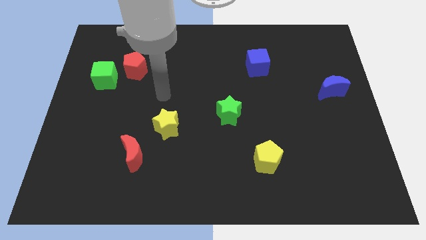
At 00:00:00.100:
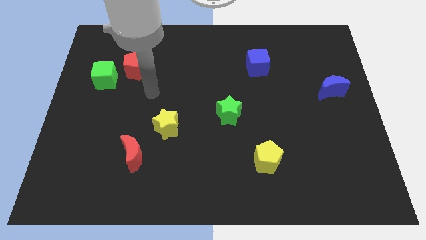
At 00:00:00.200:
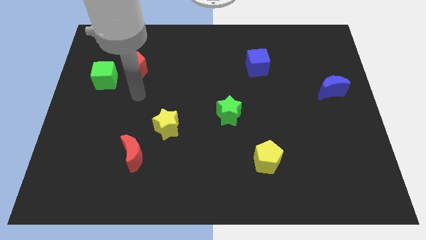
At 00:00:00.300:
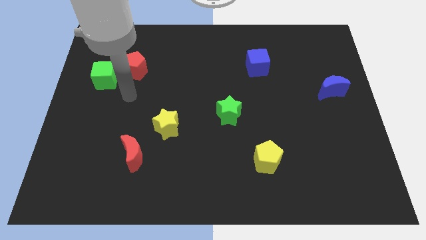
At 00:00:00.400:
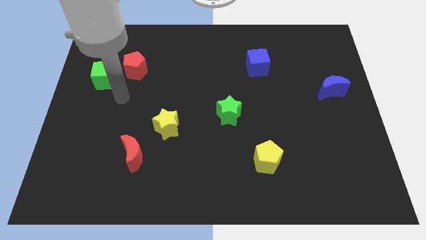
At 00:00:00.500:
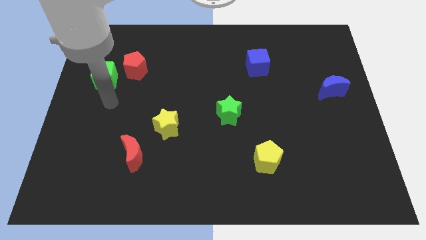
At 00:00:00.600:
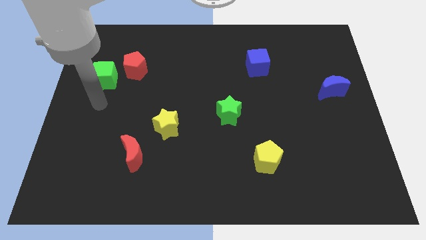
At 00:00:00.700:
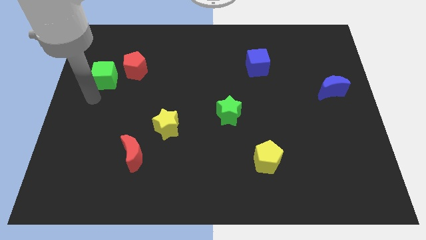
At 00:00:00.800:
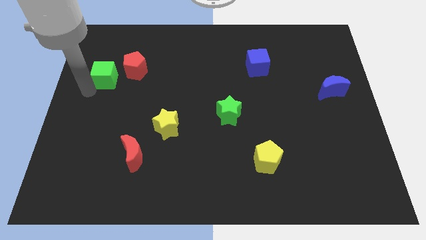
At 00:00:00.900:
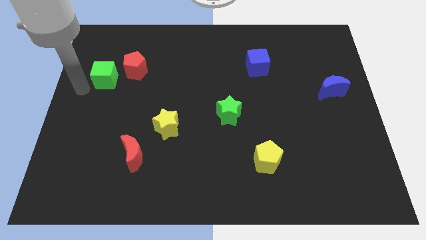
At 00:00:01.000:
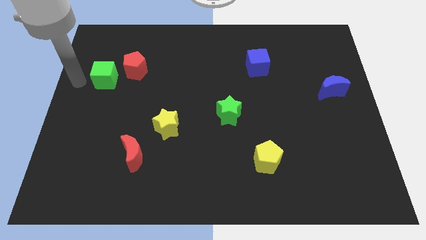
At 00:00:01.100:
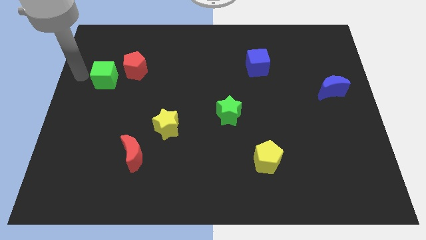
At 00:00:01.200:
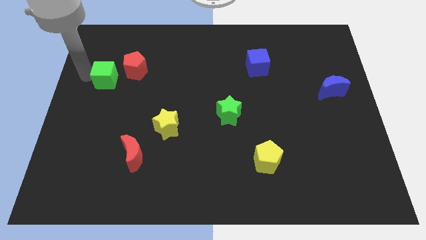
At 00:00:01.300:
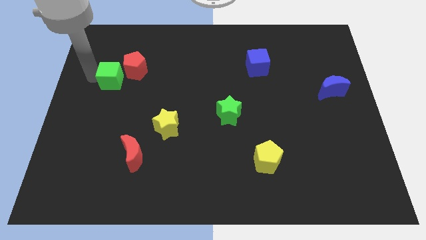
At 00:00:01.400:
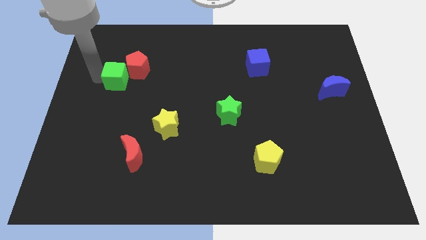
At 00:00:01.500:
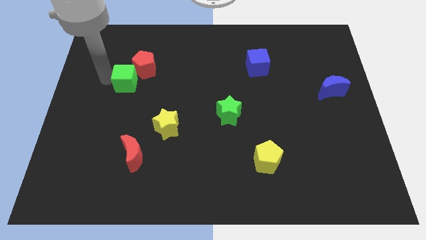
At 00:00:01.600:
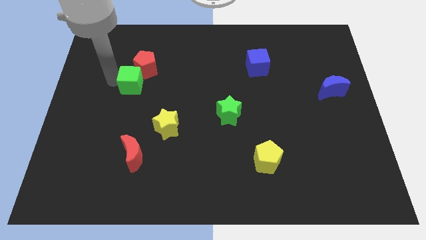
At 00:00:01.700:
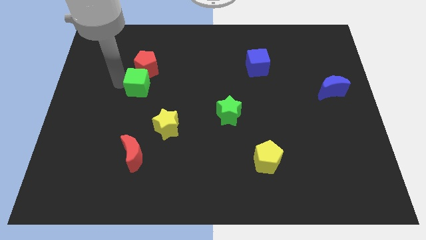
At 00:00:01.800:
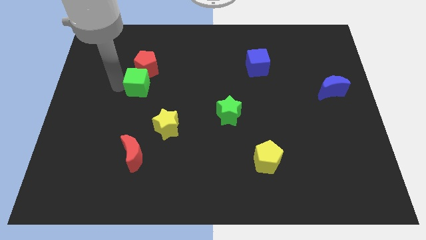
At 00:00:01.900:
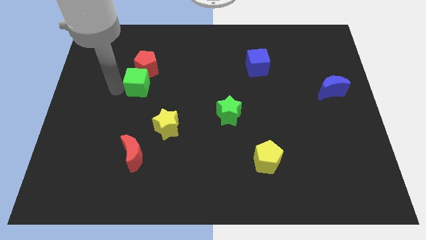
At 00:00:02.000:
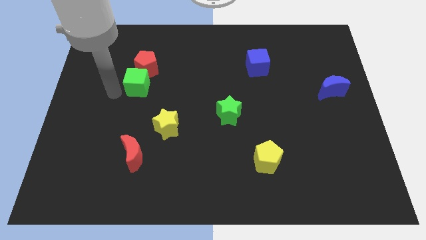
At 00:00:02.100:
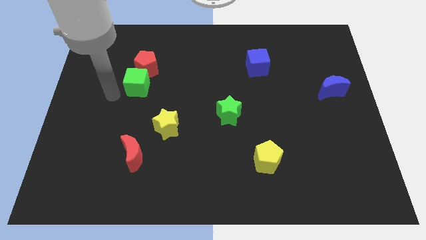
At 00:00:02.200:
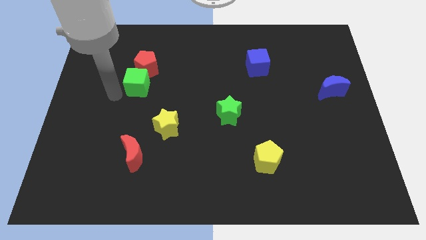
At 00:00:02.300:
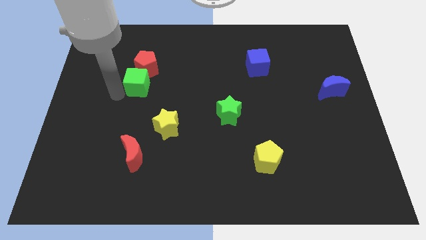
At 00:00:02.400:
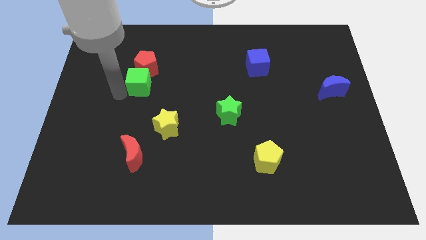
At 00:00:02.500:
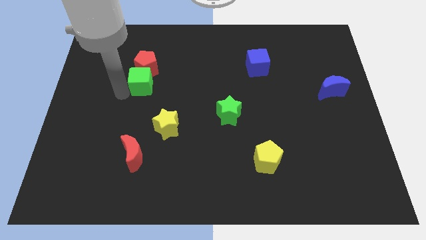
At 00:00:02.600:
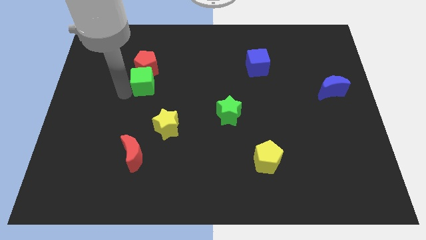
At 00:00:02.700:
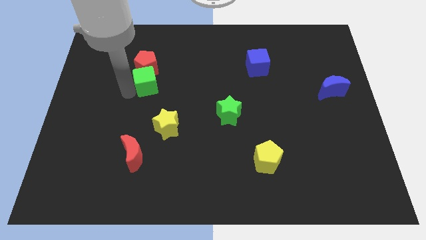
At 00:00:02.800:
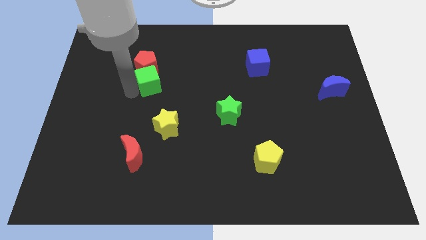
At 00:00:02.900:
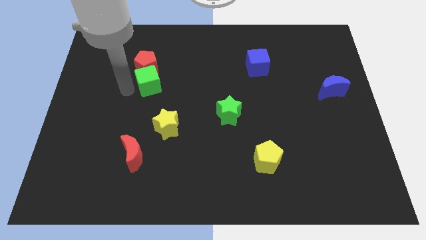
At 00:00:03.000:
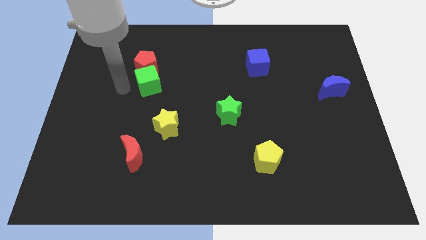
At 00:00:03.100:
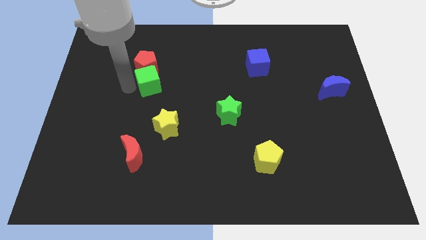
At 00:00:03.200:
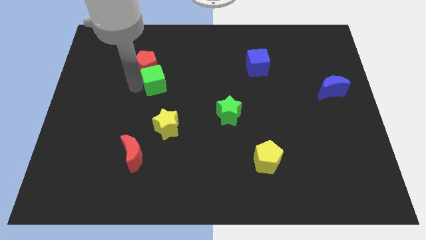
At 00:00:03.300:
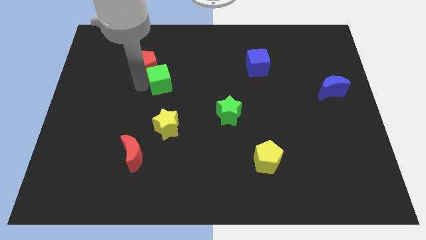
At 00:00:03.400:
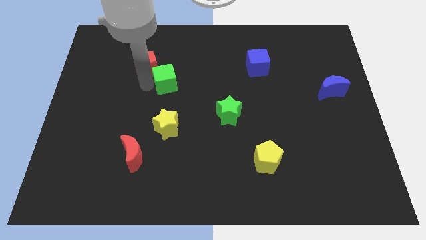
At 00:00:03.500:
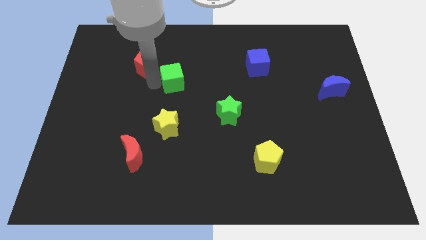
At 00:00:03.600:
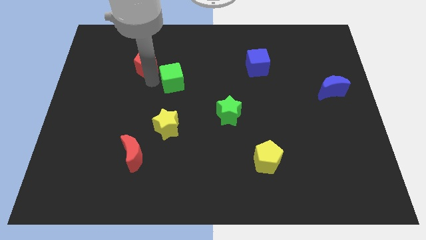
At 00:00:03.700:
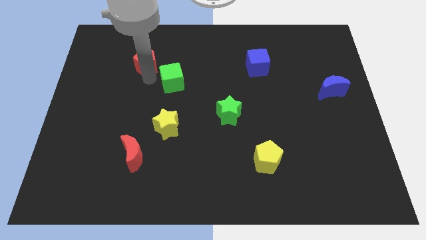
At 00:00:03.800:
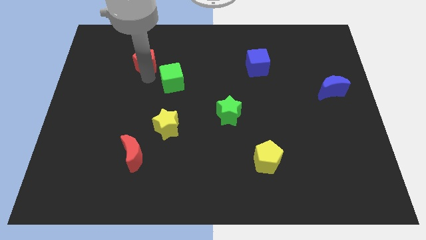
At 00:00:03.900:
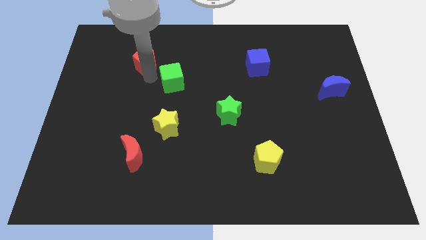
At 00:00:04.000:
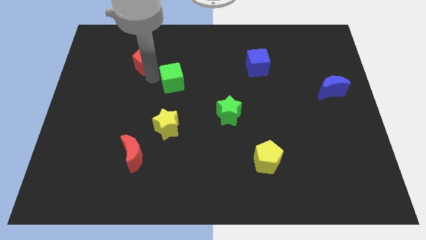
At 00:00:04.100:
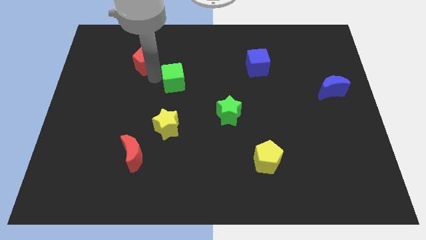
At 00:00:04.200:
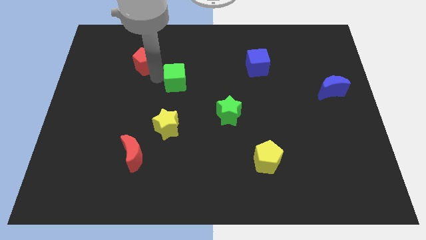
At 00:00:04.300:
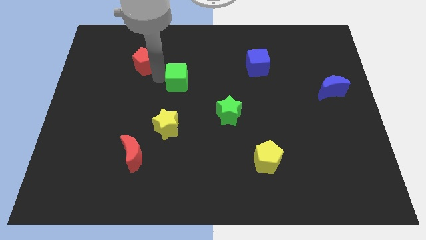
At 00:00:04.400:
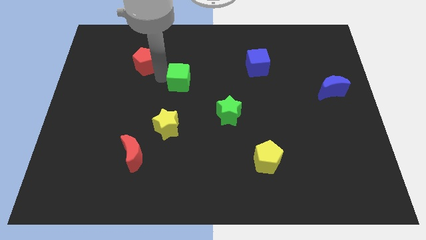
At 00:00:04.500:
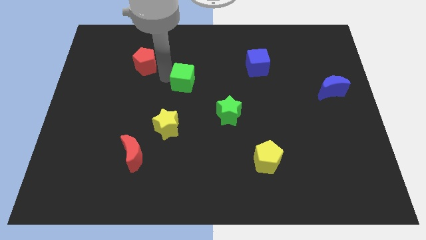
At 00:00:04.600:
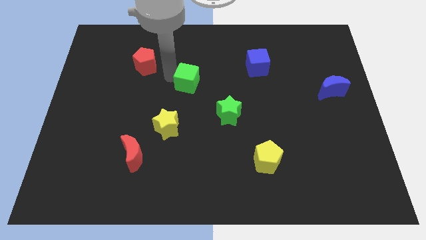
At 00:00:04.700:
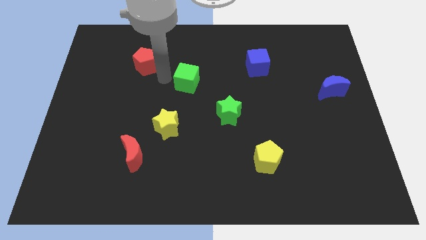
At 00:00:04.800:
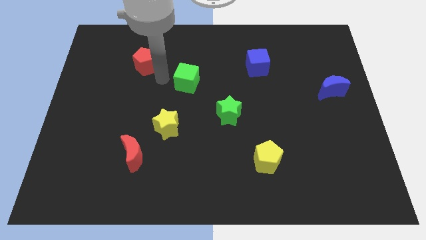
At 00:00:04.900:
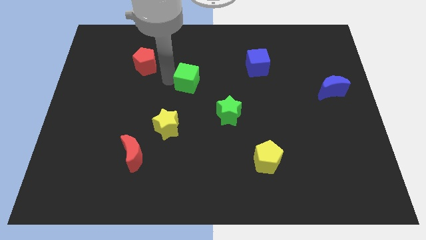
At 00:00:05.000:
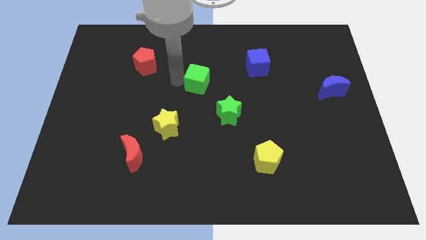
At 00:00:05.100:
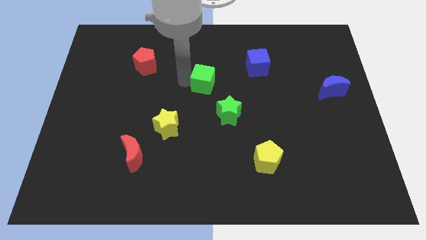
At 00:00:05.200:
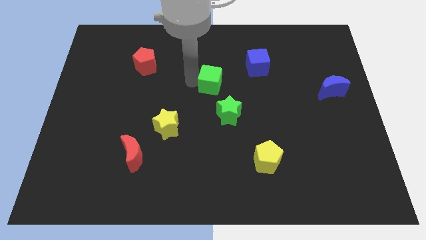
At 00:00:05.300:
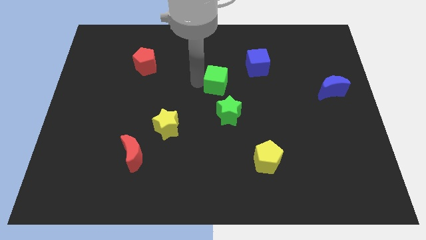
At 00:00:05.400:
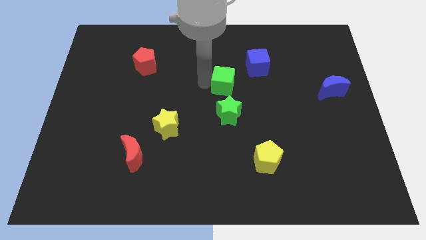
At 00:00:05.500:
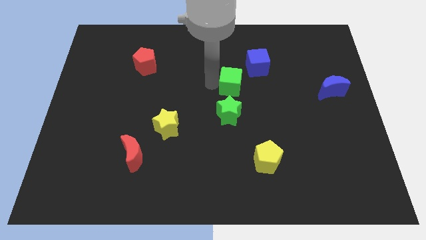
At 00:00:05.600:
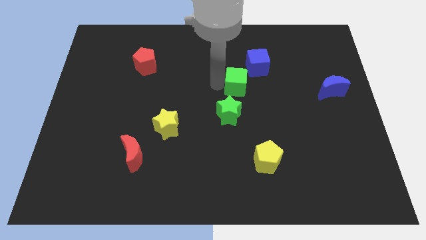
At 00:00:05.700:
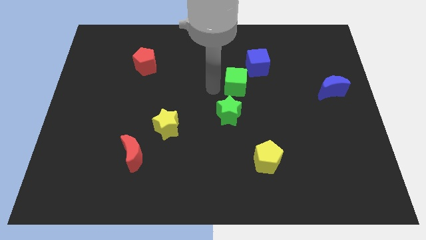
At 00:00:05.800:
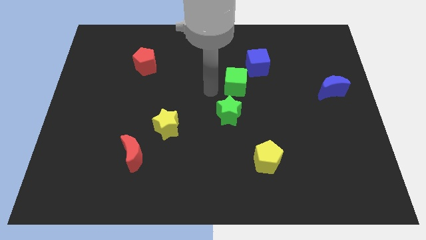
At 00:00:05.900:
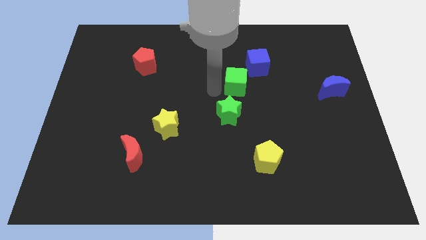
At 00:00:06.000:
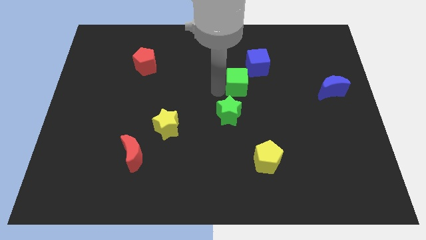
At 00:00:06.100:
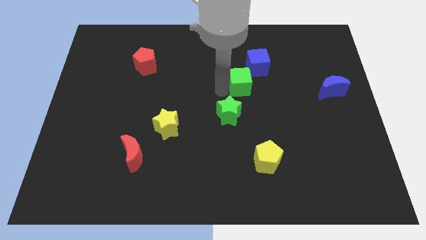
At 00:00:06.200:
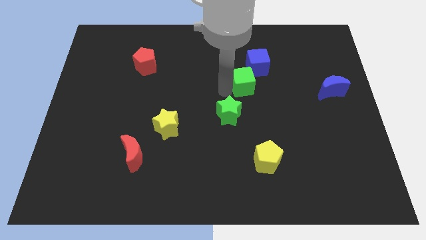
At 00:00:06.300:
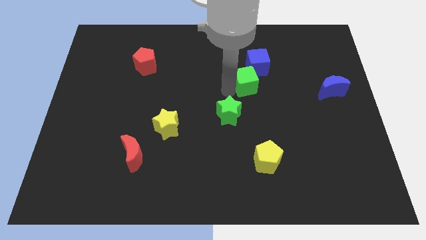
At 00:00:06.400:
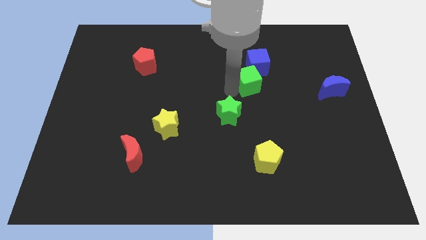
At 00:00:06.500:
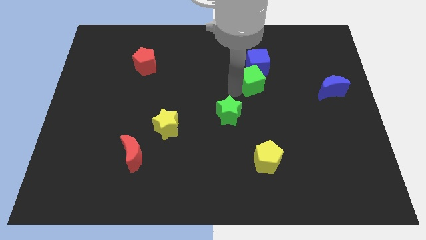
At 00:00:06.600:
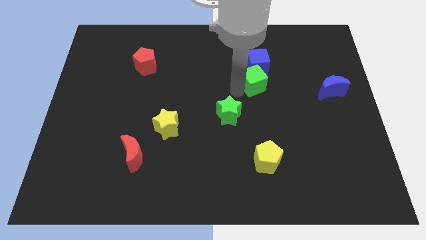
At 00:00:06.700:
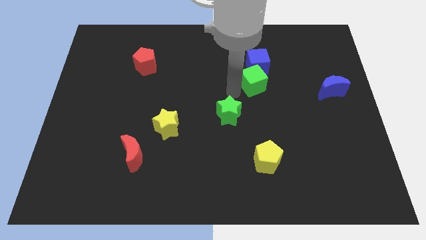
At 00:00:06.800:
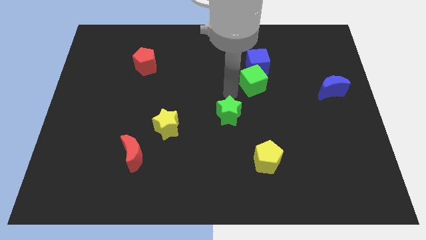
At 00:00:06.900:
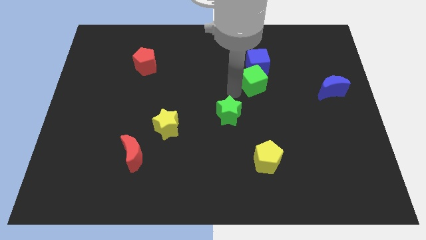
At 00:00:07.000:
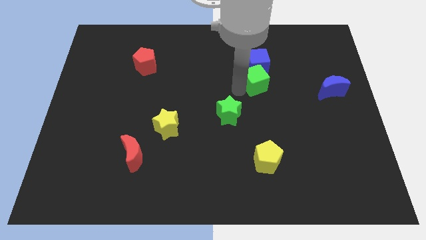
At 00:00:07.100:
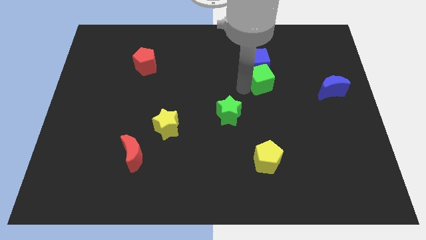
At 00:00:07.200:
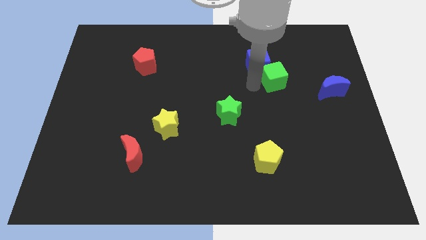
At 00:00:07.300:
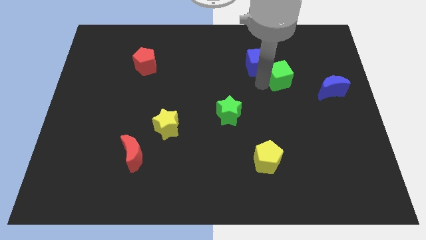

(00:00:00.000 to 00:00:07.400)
put the green cube right of the blue cube

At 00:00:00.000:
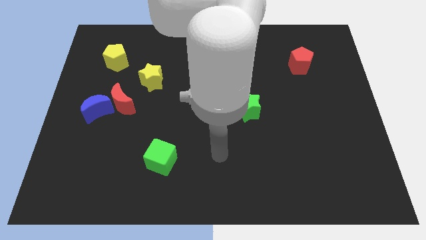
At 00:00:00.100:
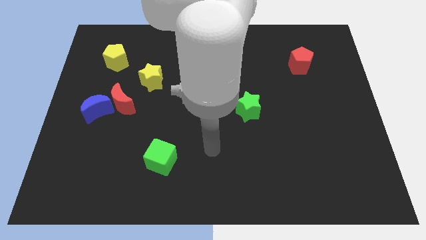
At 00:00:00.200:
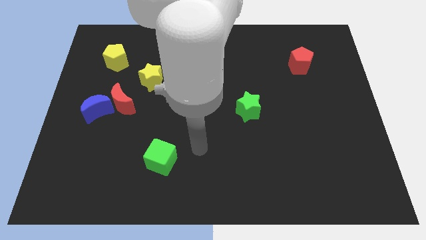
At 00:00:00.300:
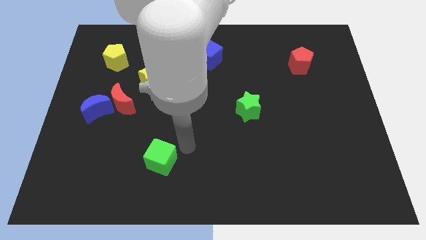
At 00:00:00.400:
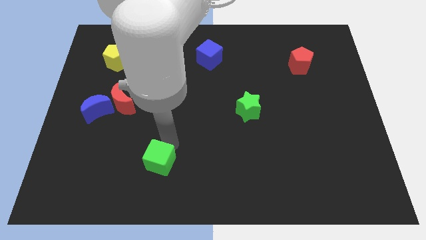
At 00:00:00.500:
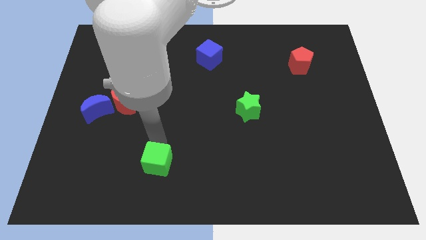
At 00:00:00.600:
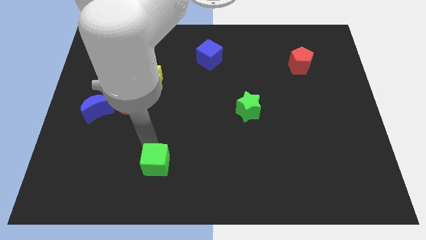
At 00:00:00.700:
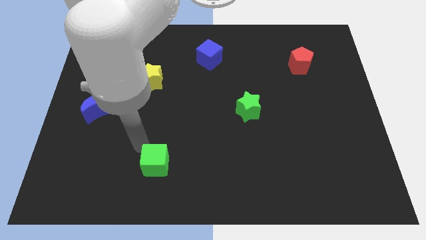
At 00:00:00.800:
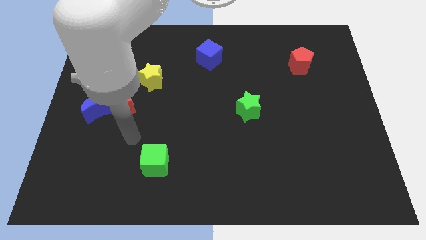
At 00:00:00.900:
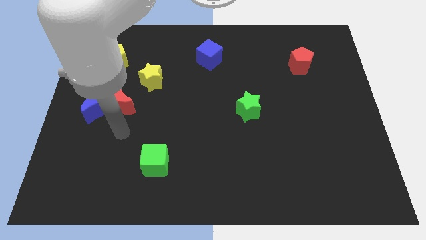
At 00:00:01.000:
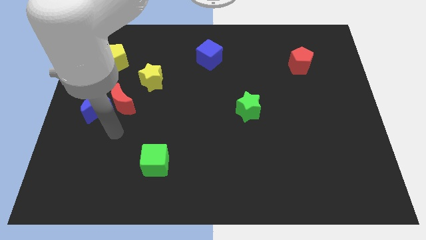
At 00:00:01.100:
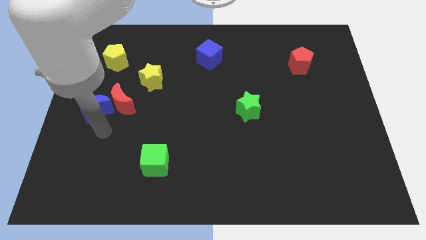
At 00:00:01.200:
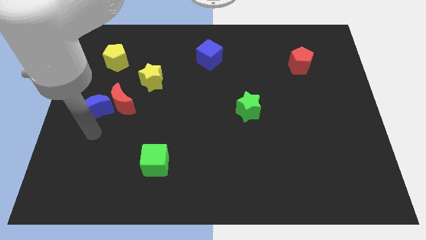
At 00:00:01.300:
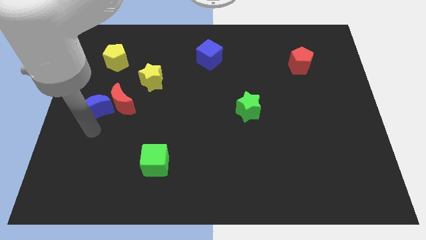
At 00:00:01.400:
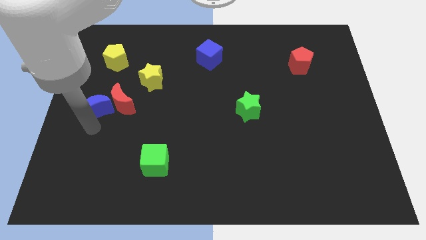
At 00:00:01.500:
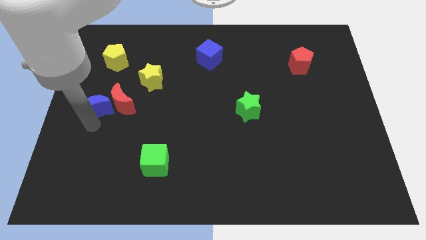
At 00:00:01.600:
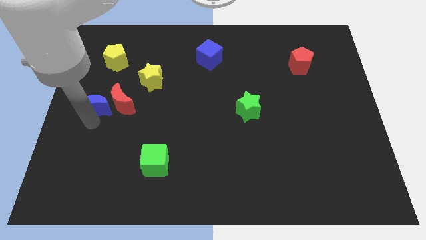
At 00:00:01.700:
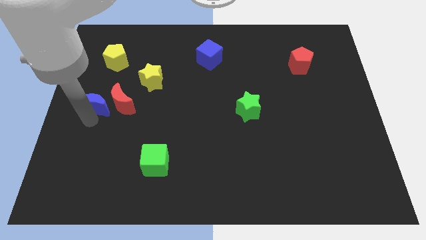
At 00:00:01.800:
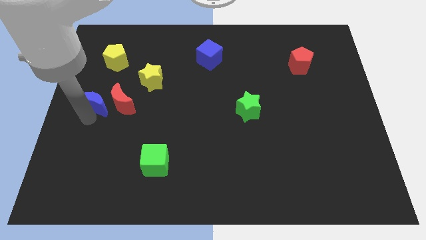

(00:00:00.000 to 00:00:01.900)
push the blue moon diagonally up and to the left of the red moon
